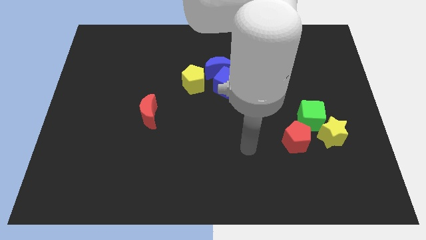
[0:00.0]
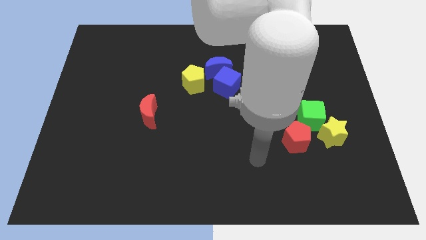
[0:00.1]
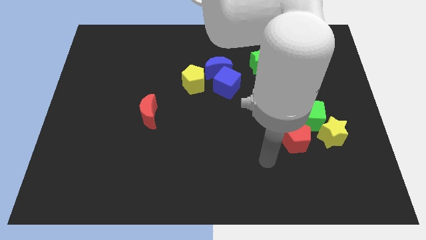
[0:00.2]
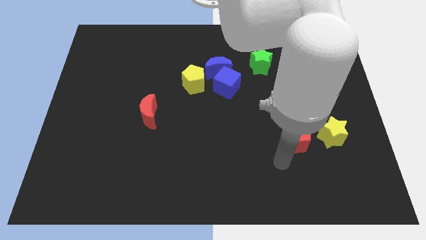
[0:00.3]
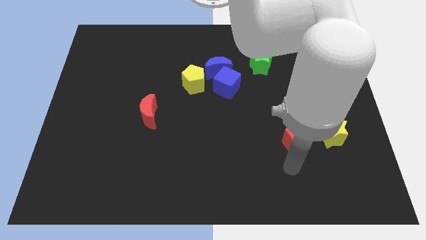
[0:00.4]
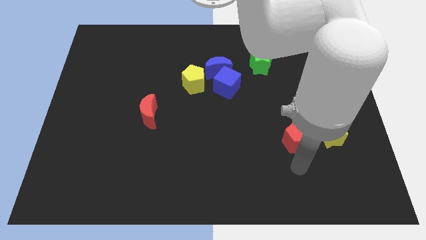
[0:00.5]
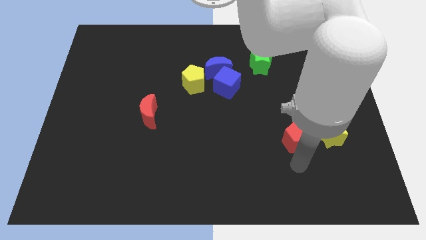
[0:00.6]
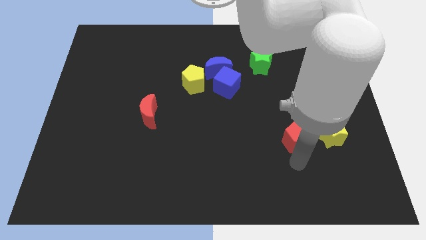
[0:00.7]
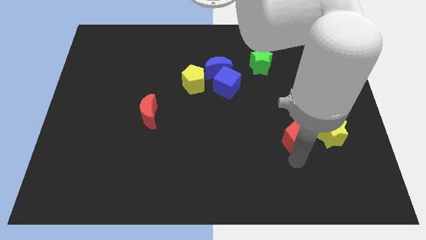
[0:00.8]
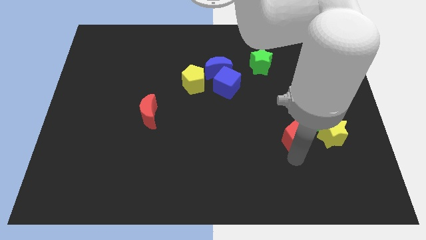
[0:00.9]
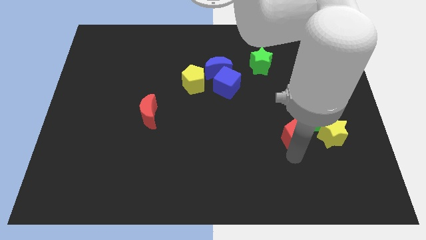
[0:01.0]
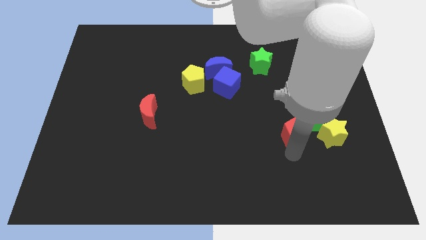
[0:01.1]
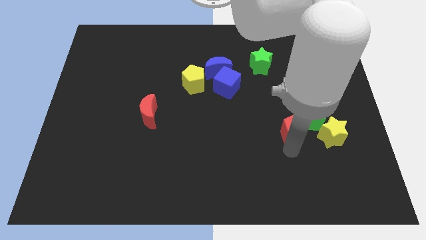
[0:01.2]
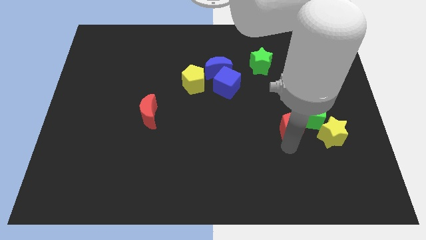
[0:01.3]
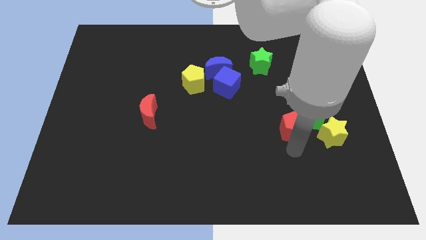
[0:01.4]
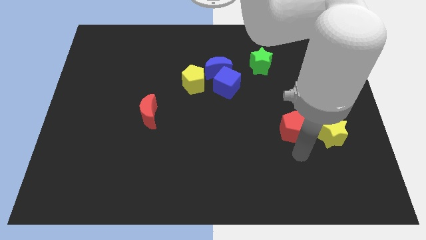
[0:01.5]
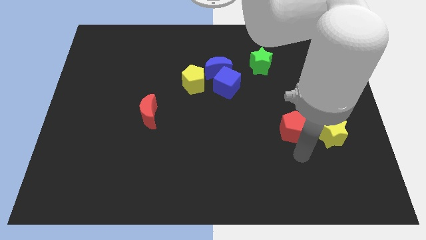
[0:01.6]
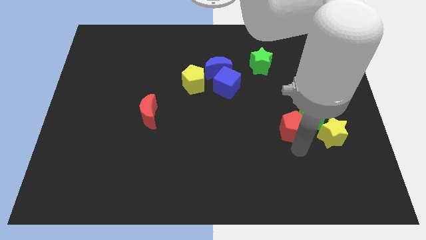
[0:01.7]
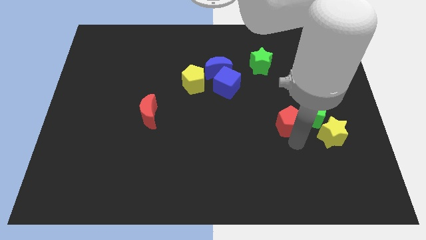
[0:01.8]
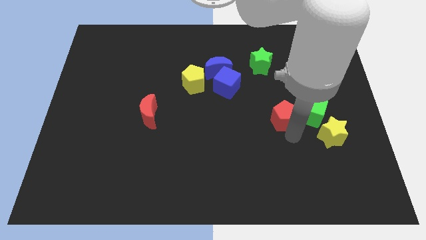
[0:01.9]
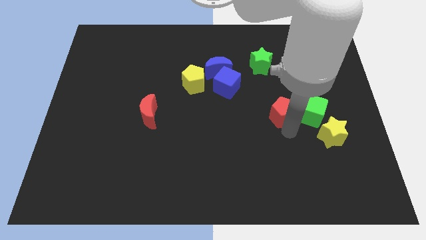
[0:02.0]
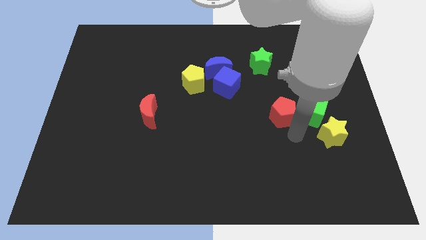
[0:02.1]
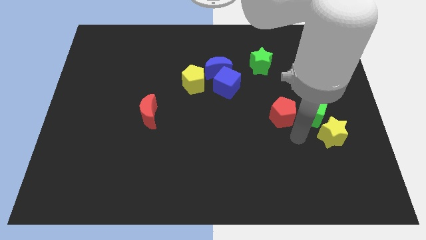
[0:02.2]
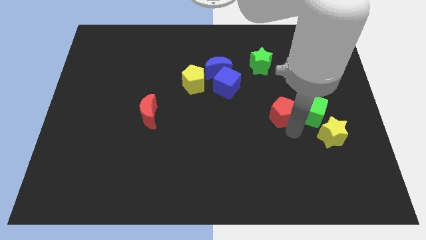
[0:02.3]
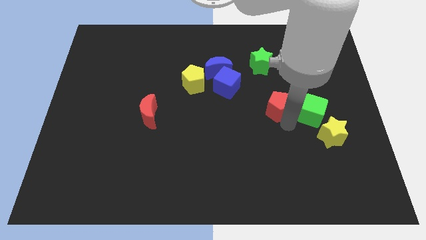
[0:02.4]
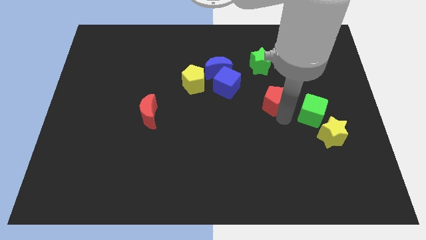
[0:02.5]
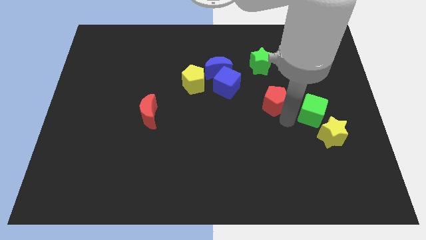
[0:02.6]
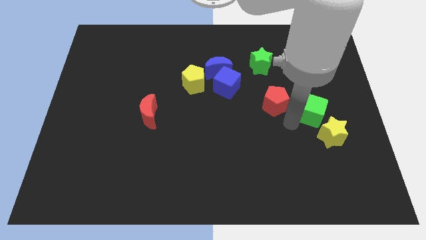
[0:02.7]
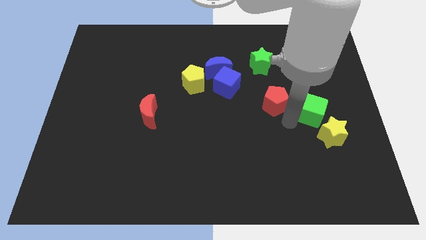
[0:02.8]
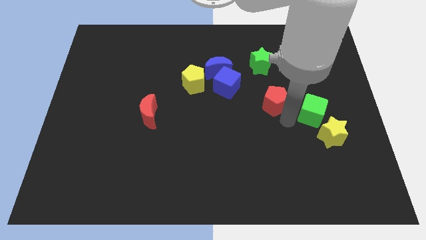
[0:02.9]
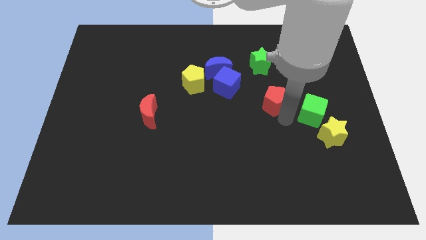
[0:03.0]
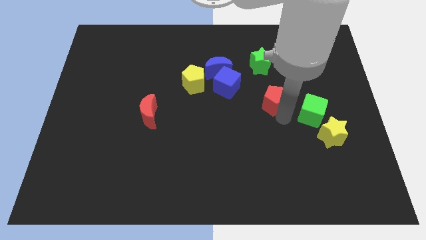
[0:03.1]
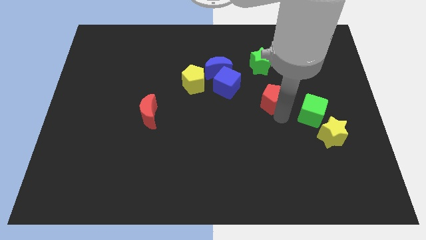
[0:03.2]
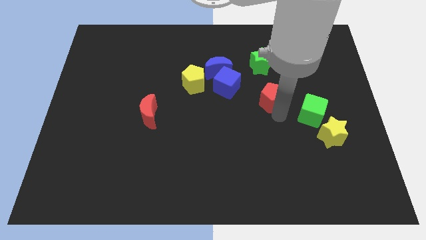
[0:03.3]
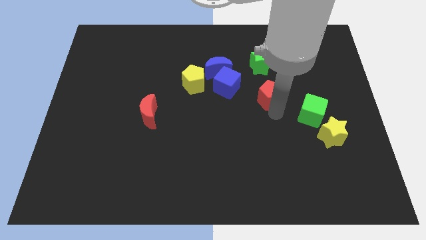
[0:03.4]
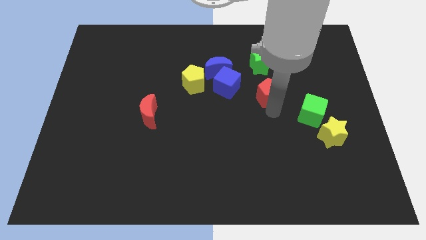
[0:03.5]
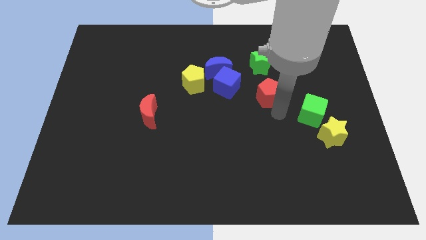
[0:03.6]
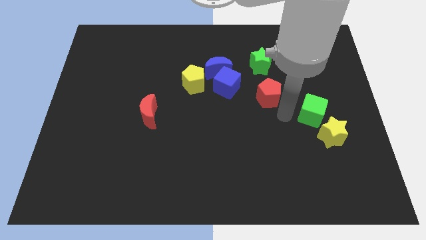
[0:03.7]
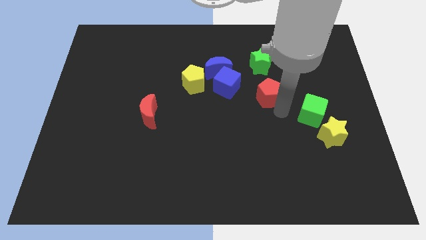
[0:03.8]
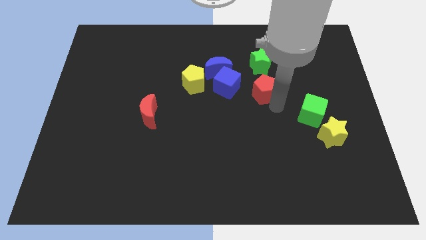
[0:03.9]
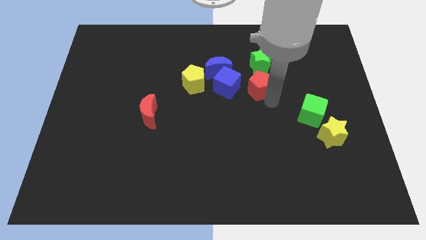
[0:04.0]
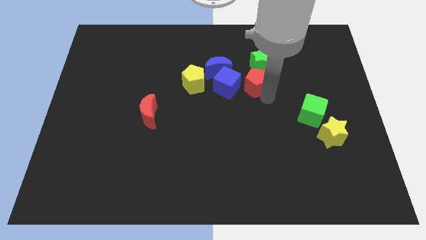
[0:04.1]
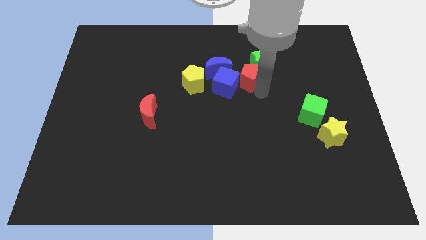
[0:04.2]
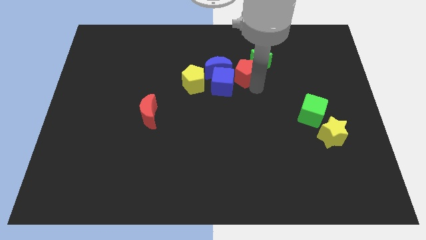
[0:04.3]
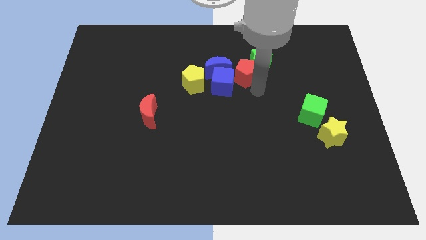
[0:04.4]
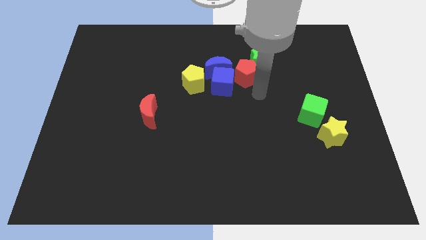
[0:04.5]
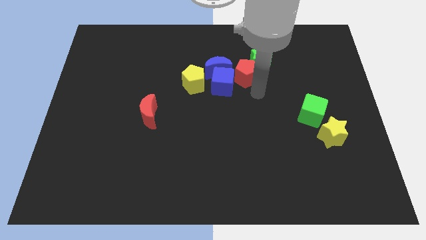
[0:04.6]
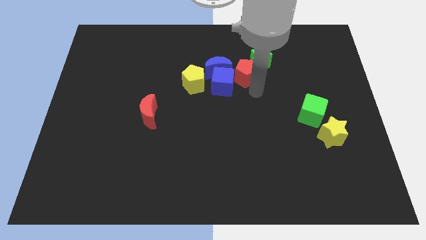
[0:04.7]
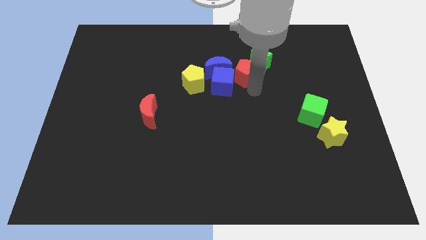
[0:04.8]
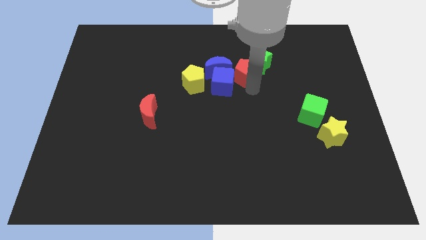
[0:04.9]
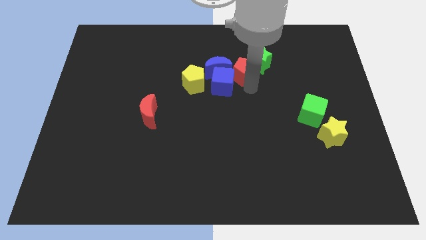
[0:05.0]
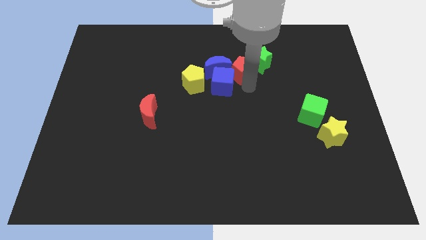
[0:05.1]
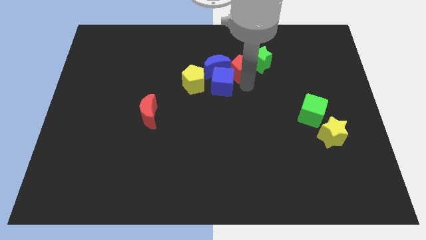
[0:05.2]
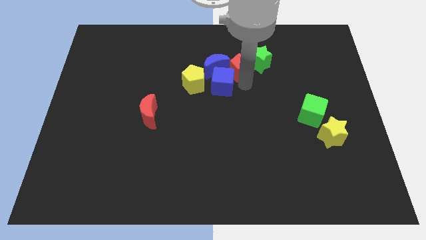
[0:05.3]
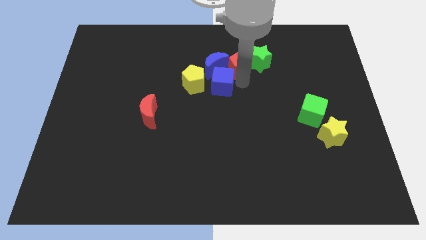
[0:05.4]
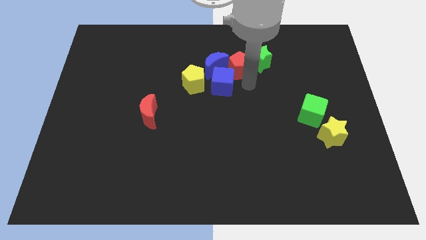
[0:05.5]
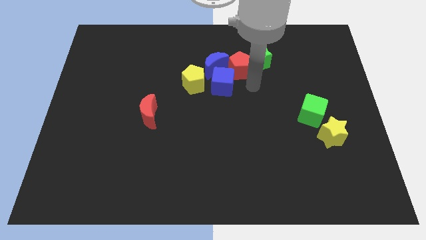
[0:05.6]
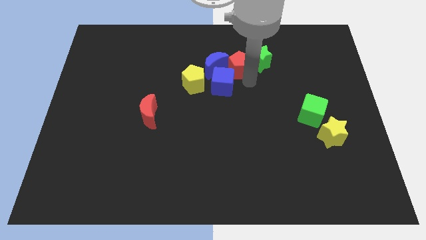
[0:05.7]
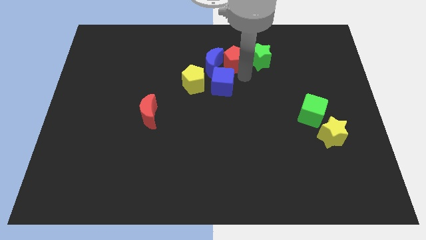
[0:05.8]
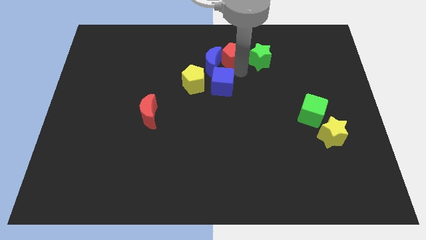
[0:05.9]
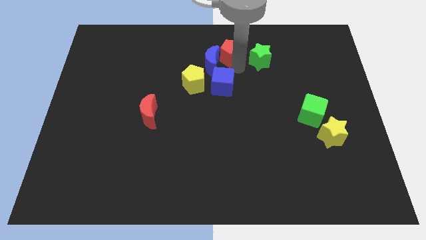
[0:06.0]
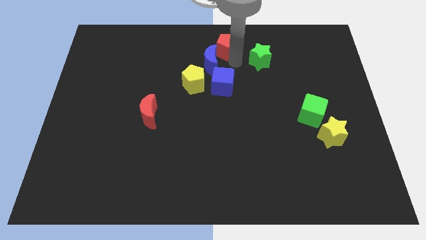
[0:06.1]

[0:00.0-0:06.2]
slide the red pentagon to the top
